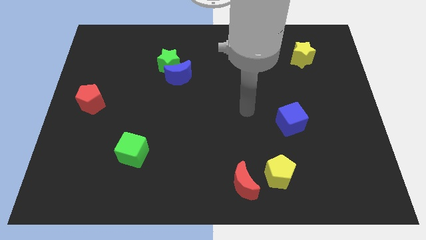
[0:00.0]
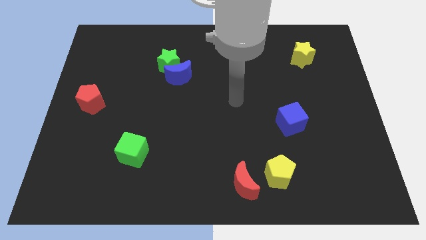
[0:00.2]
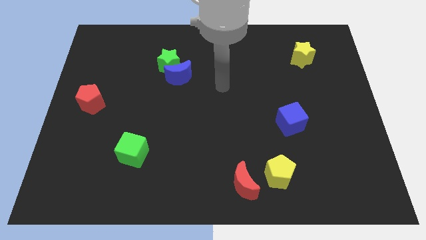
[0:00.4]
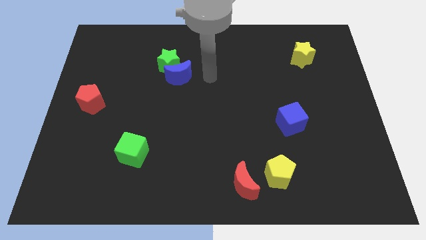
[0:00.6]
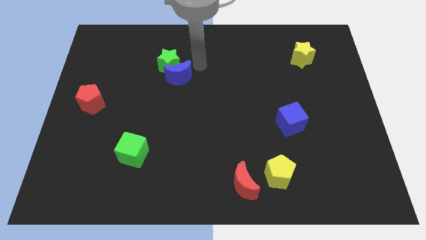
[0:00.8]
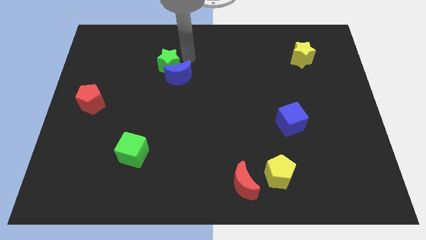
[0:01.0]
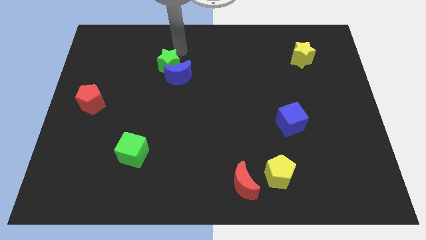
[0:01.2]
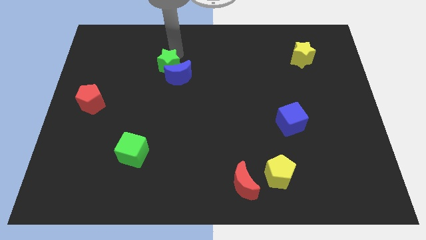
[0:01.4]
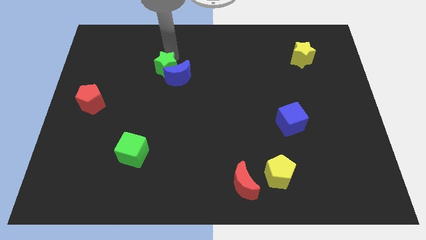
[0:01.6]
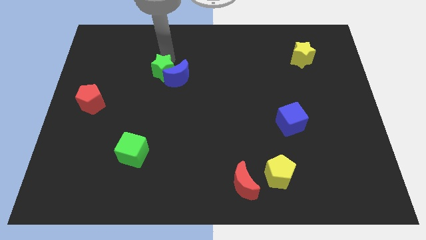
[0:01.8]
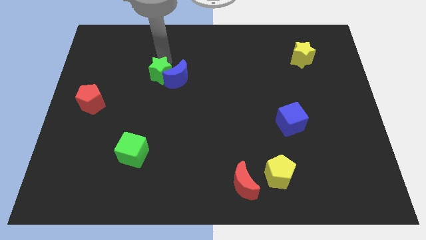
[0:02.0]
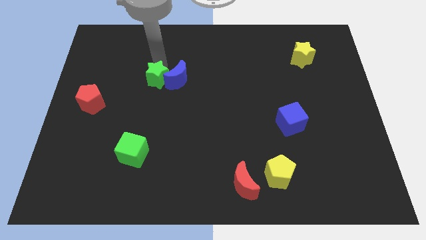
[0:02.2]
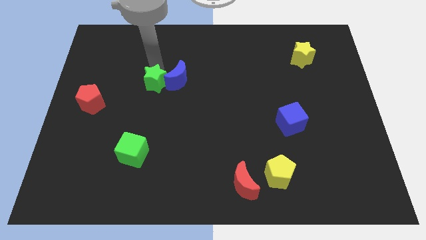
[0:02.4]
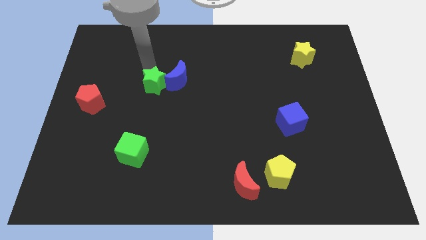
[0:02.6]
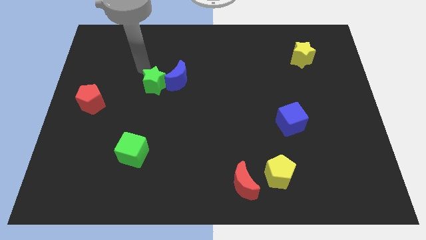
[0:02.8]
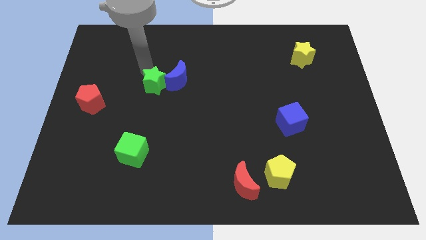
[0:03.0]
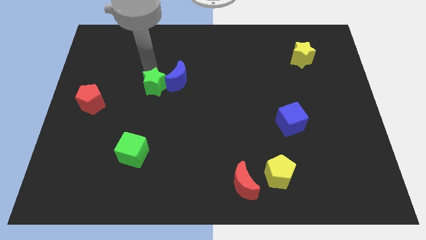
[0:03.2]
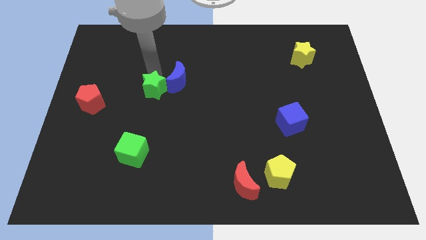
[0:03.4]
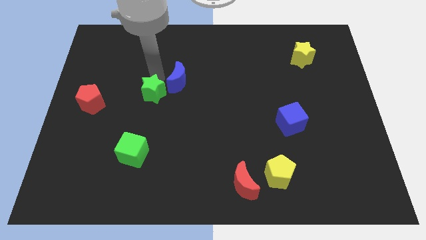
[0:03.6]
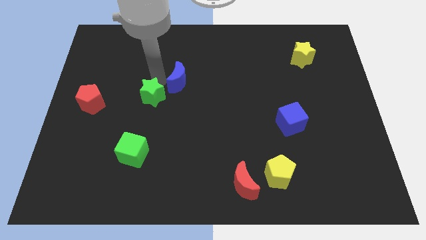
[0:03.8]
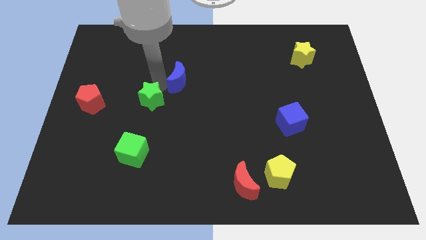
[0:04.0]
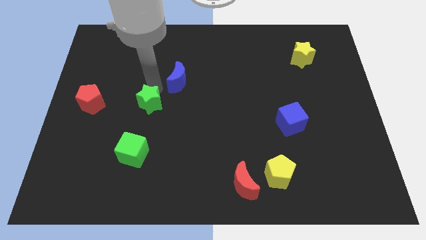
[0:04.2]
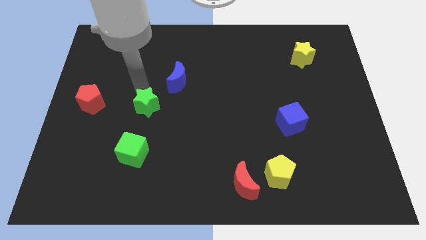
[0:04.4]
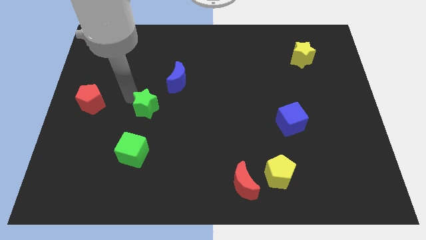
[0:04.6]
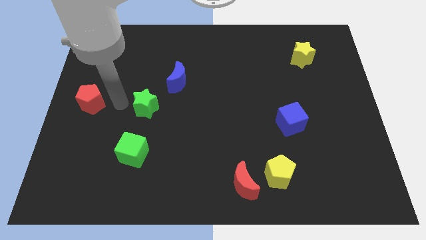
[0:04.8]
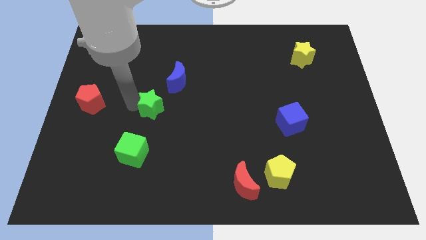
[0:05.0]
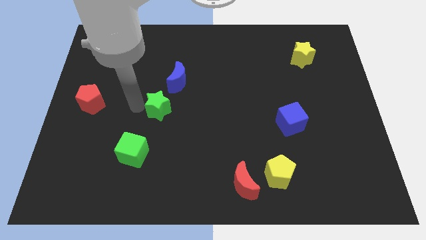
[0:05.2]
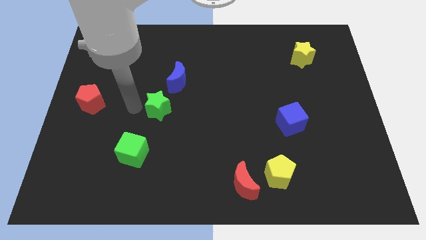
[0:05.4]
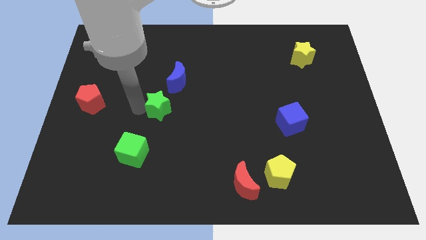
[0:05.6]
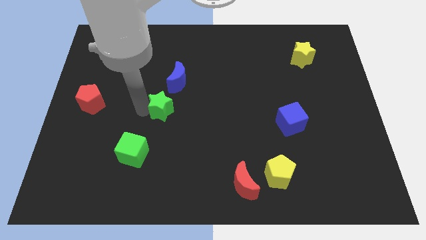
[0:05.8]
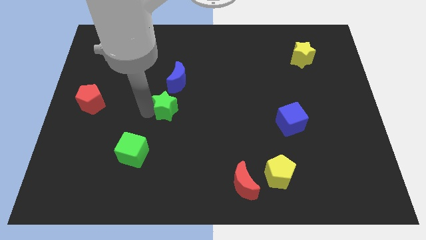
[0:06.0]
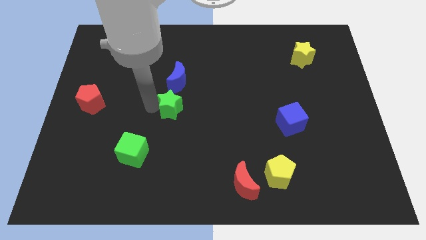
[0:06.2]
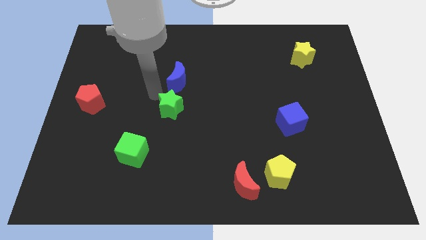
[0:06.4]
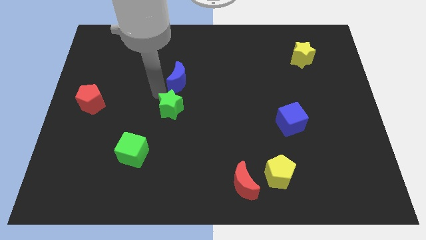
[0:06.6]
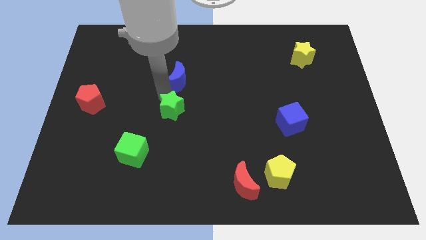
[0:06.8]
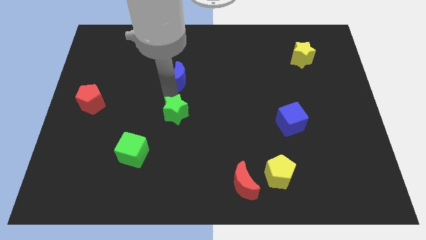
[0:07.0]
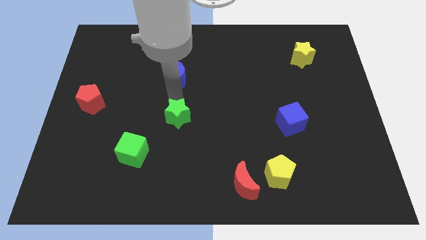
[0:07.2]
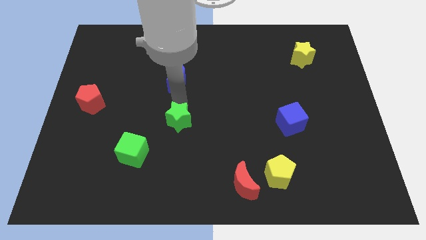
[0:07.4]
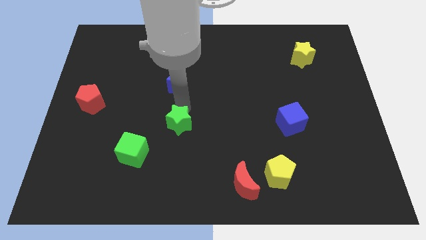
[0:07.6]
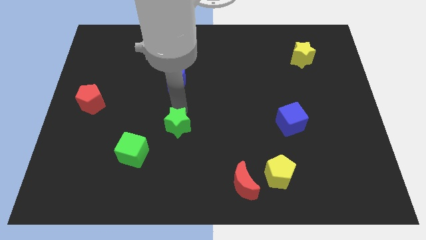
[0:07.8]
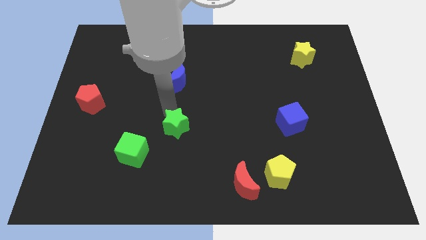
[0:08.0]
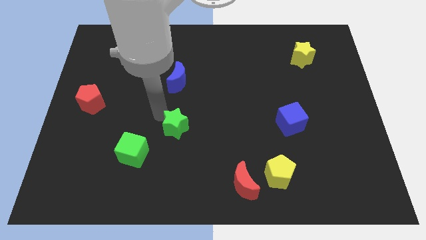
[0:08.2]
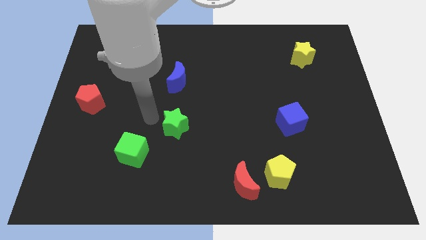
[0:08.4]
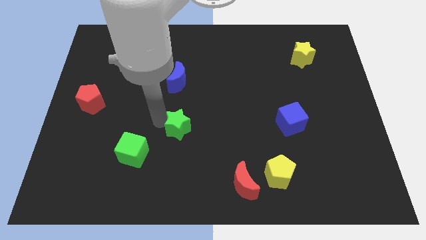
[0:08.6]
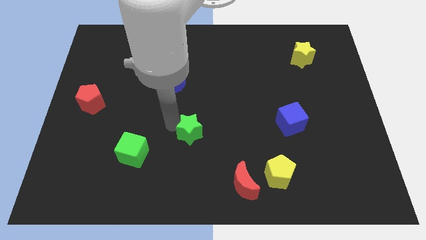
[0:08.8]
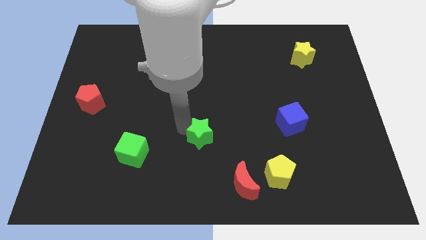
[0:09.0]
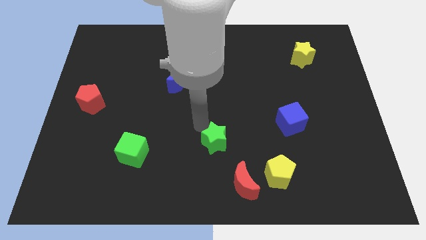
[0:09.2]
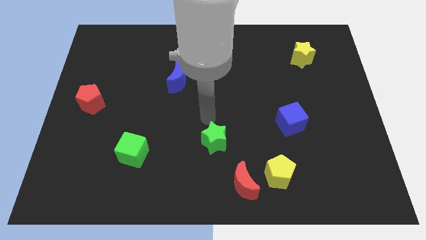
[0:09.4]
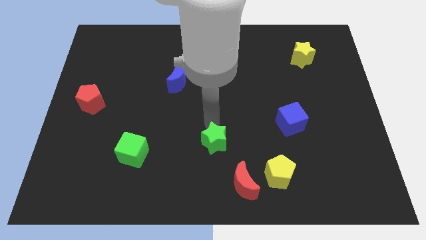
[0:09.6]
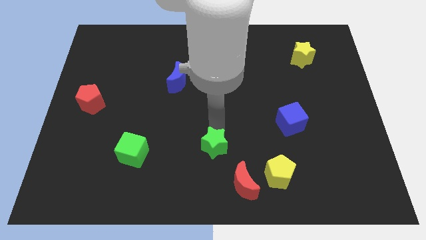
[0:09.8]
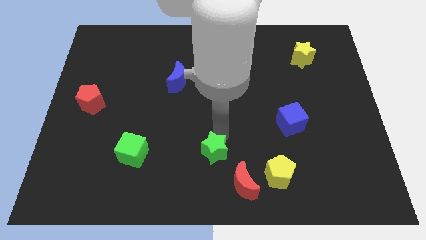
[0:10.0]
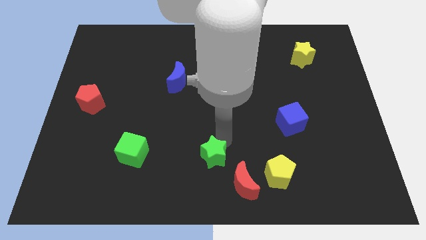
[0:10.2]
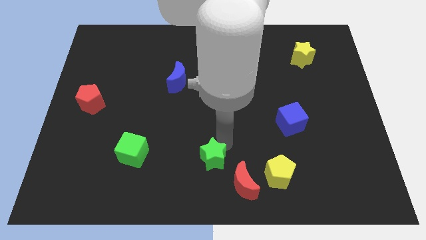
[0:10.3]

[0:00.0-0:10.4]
slide the green star just left of the yellow pentagon

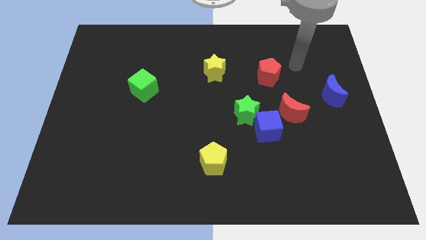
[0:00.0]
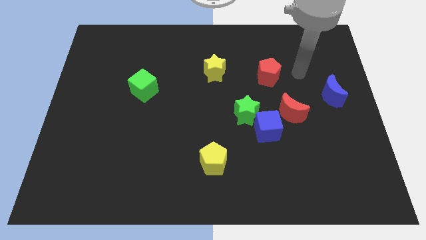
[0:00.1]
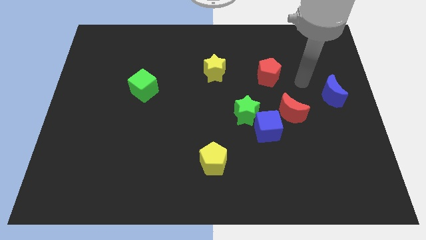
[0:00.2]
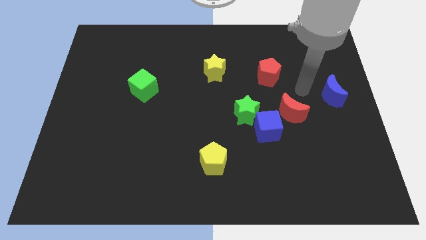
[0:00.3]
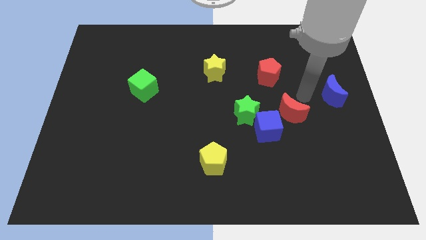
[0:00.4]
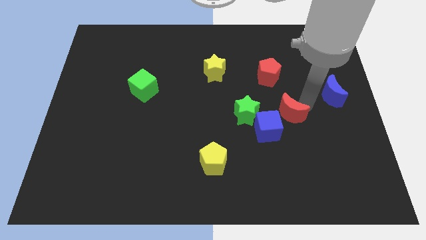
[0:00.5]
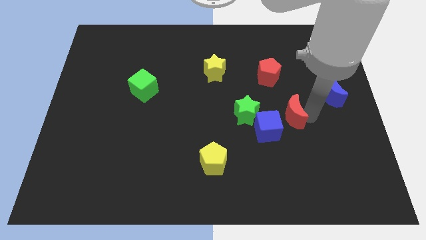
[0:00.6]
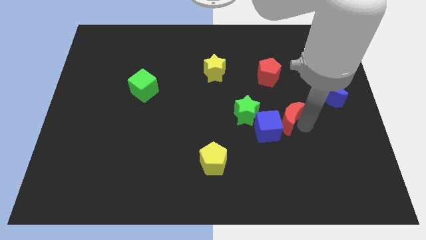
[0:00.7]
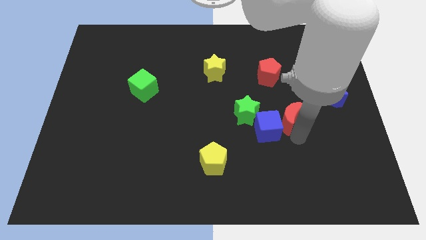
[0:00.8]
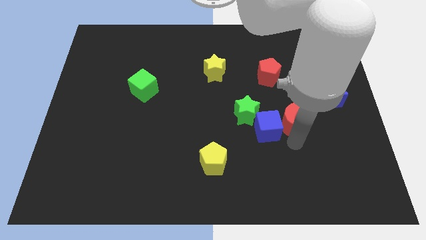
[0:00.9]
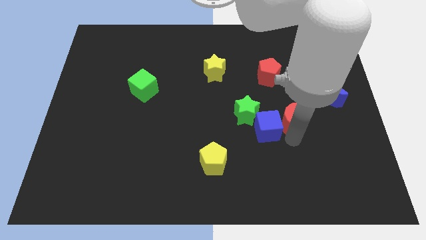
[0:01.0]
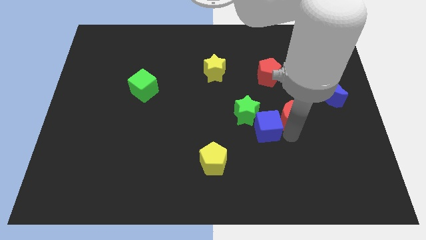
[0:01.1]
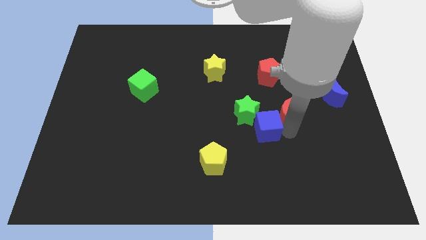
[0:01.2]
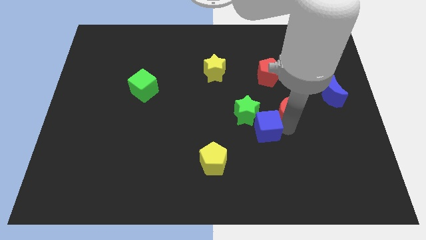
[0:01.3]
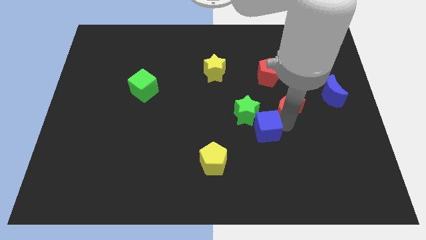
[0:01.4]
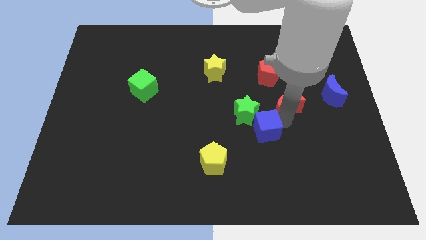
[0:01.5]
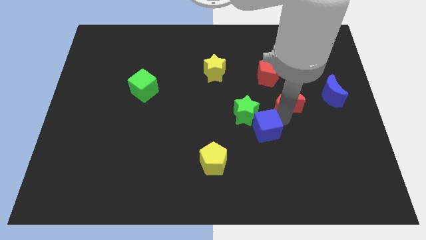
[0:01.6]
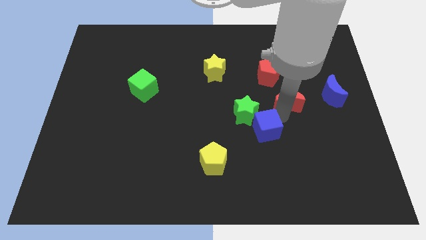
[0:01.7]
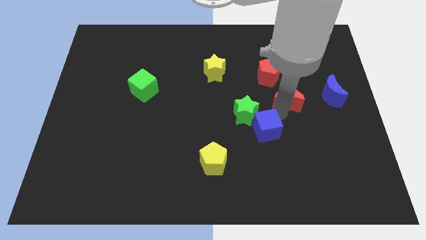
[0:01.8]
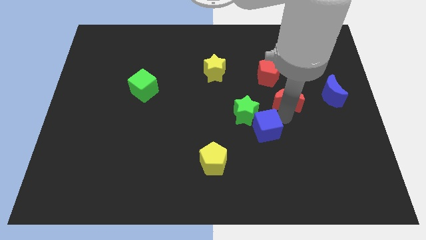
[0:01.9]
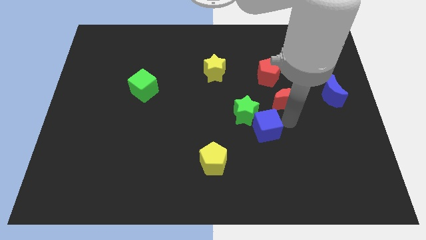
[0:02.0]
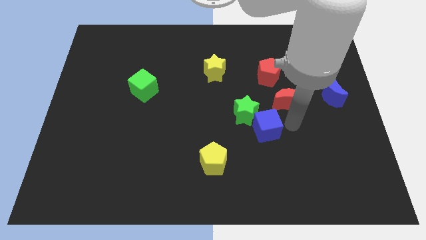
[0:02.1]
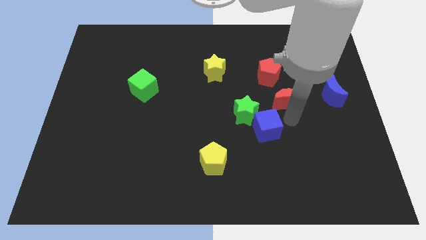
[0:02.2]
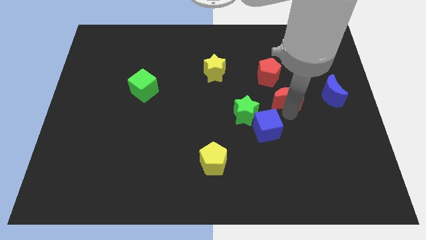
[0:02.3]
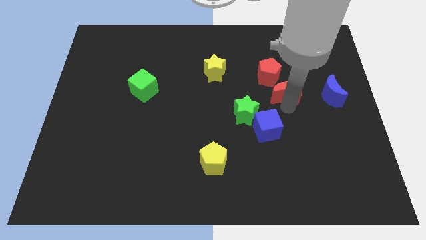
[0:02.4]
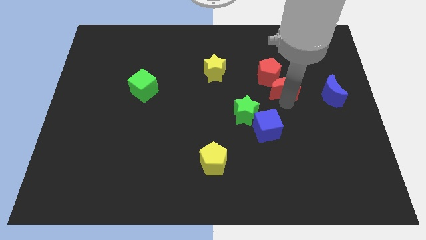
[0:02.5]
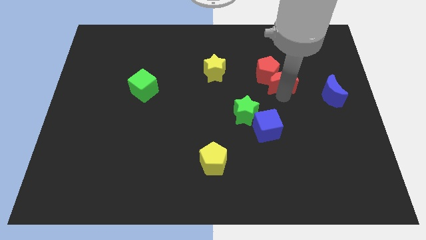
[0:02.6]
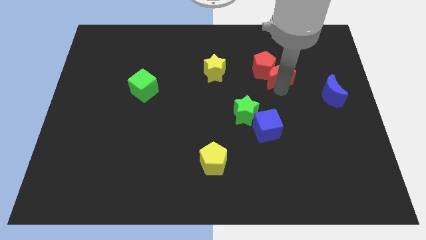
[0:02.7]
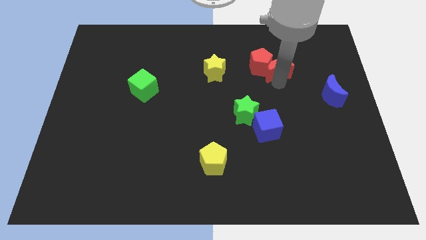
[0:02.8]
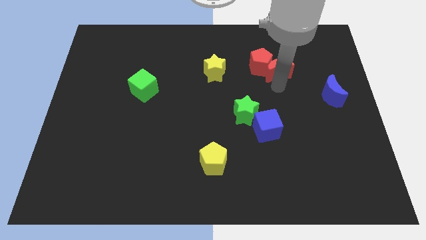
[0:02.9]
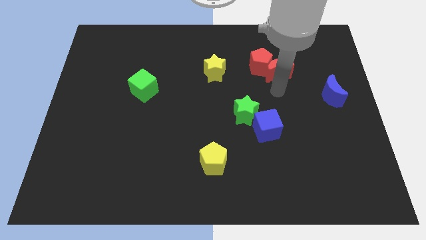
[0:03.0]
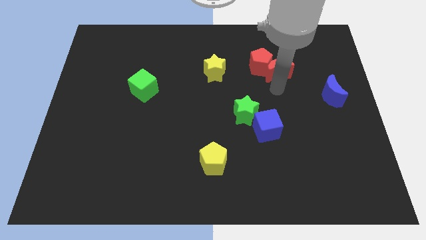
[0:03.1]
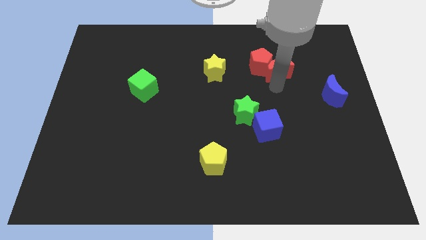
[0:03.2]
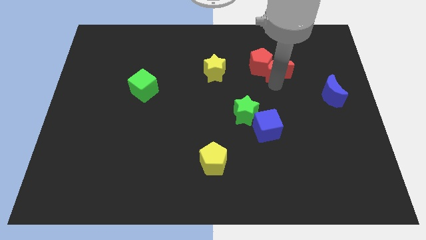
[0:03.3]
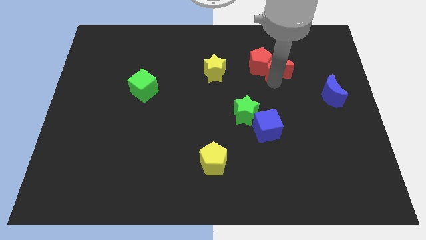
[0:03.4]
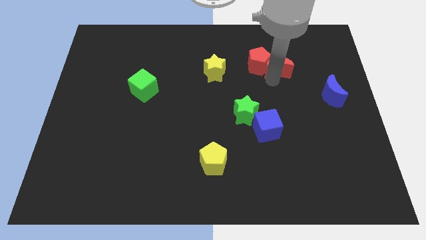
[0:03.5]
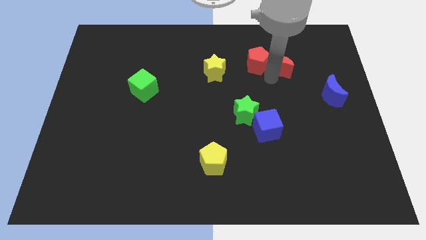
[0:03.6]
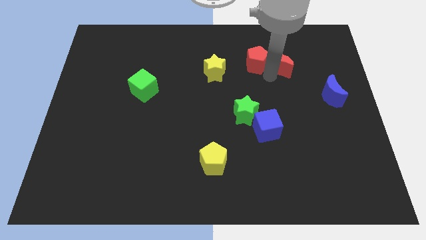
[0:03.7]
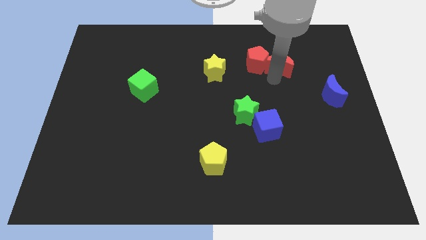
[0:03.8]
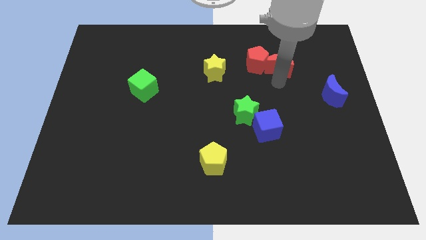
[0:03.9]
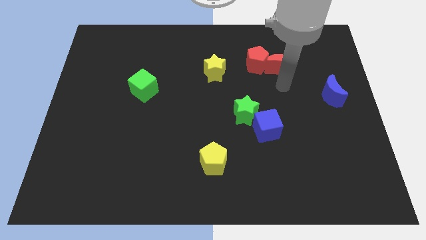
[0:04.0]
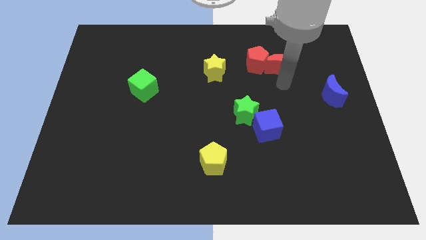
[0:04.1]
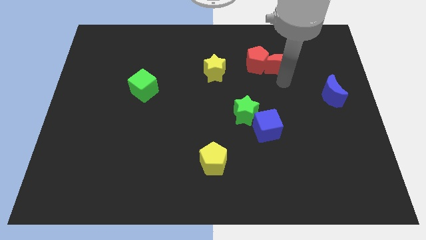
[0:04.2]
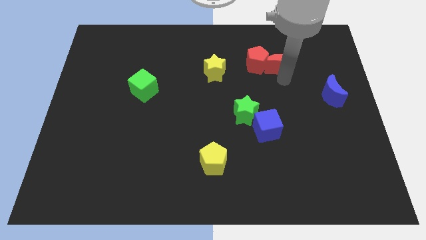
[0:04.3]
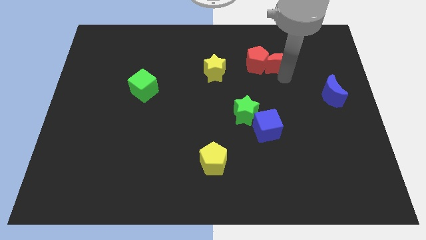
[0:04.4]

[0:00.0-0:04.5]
move the red moon diagonally up and to the right of the red pentagon
